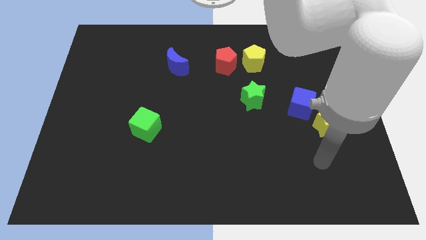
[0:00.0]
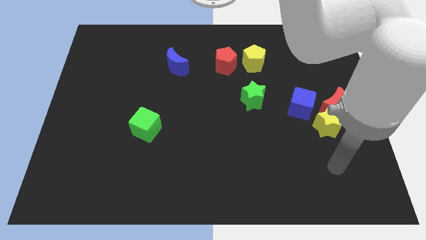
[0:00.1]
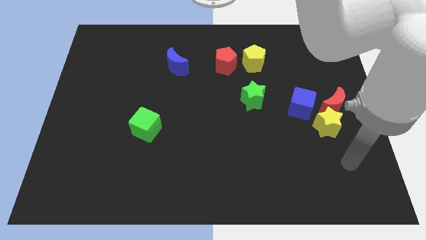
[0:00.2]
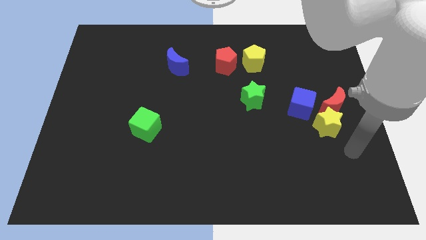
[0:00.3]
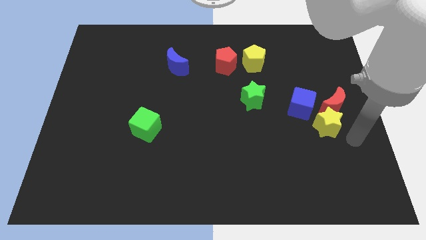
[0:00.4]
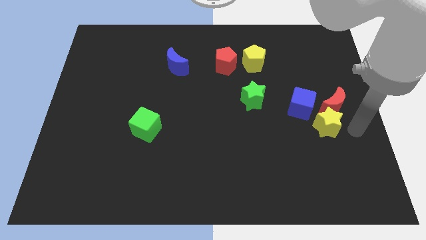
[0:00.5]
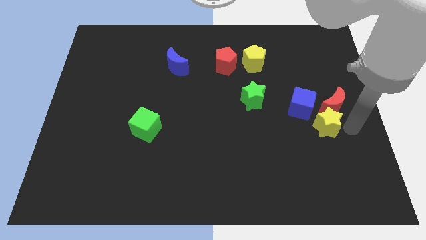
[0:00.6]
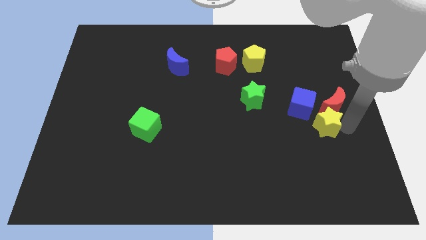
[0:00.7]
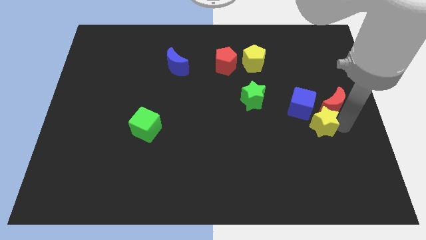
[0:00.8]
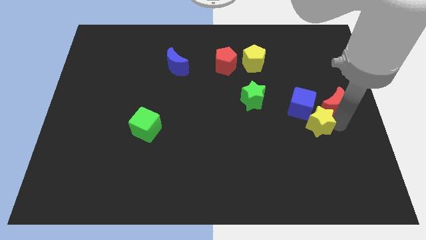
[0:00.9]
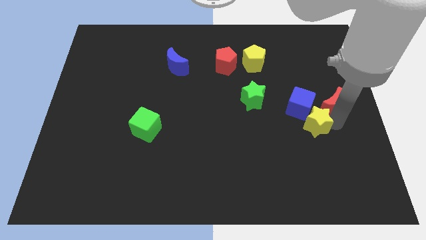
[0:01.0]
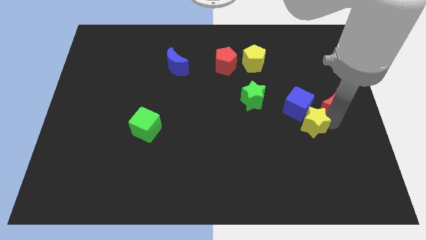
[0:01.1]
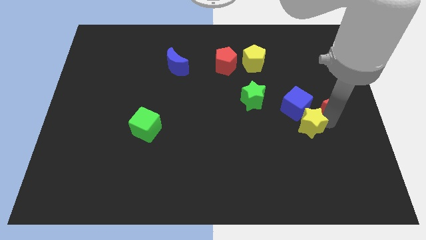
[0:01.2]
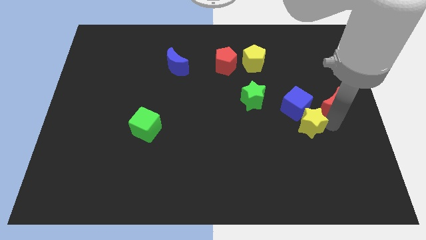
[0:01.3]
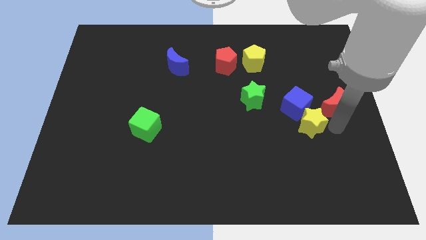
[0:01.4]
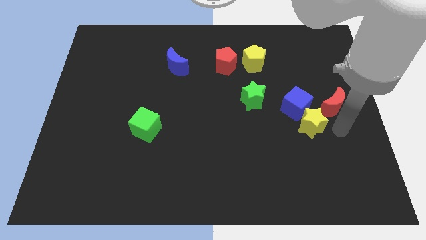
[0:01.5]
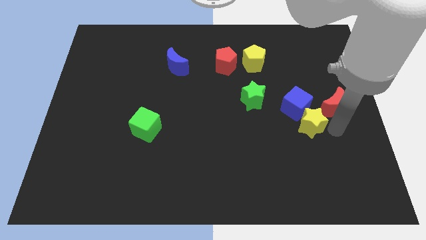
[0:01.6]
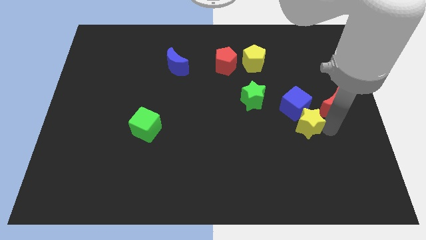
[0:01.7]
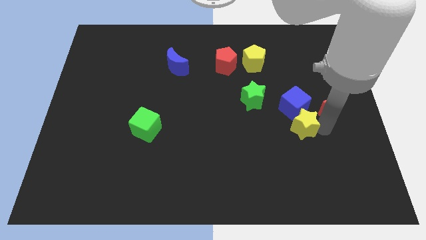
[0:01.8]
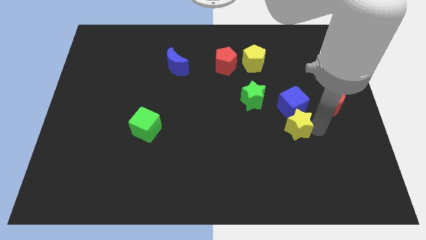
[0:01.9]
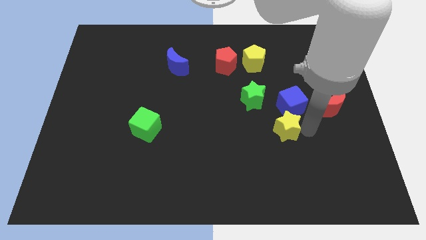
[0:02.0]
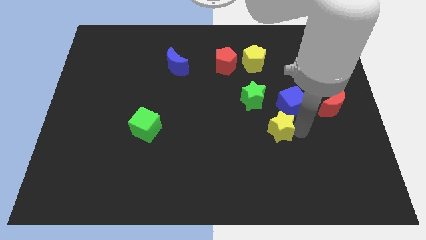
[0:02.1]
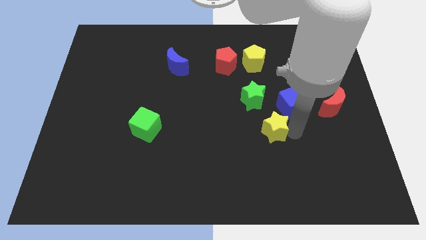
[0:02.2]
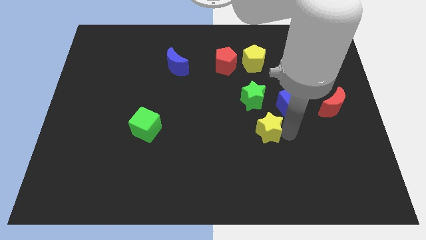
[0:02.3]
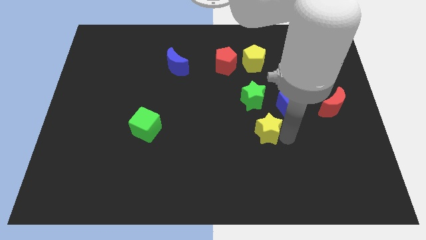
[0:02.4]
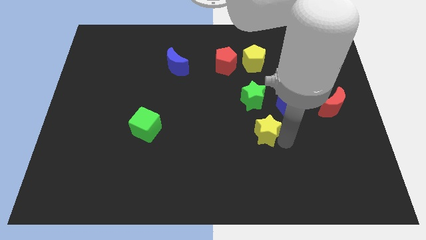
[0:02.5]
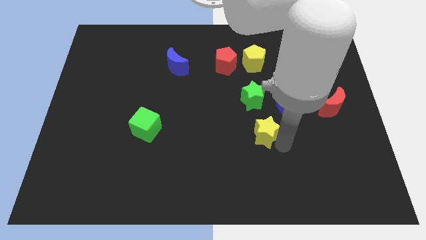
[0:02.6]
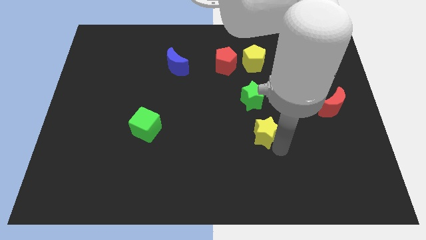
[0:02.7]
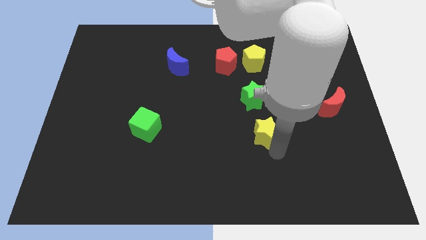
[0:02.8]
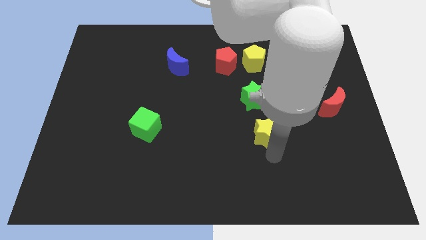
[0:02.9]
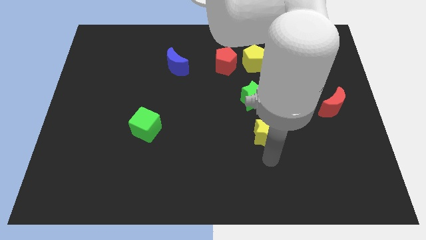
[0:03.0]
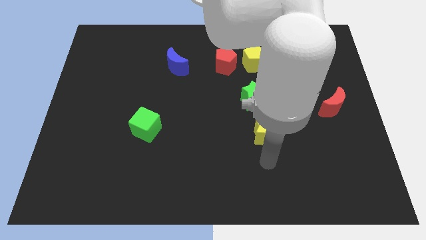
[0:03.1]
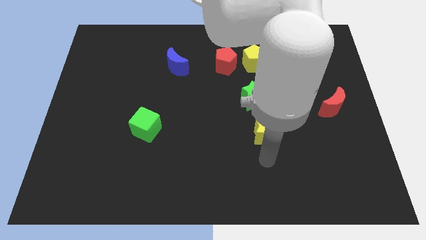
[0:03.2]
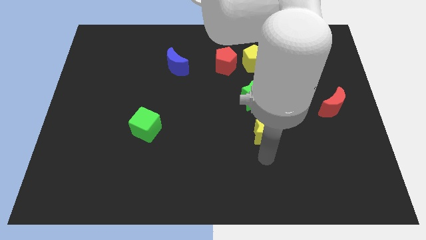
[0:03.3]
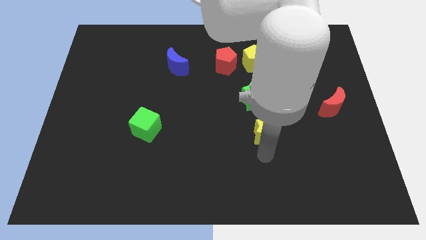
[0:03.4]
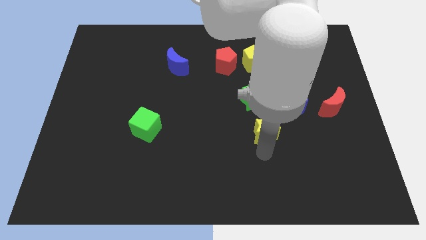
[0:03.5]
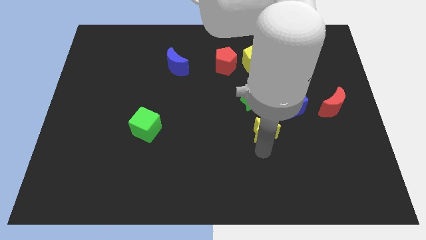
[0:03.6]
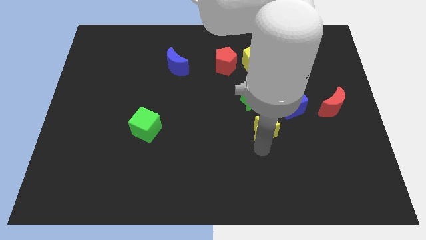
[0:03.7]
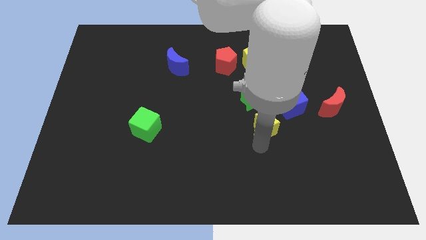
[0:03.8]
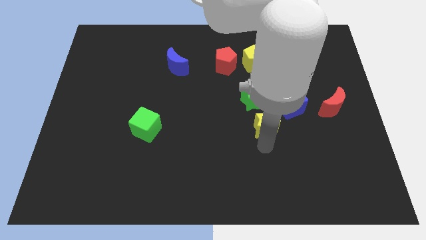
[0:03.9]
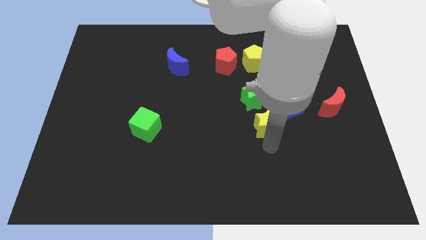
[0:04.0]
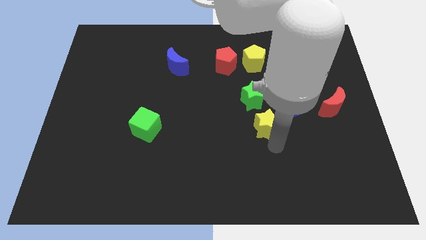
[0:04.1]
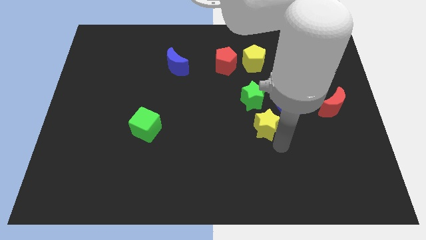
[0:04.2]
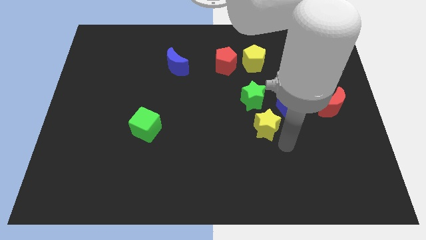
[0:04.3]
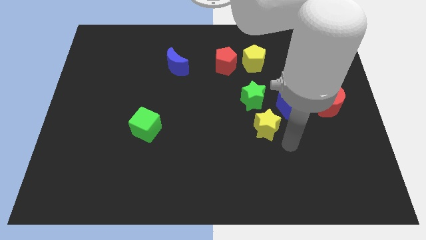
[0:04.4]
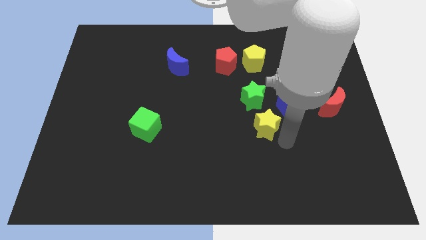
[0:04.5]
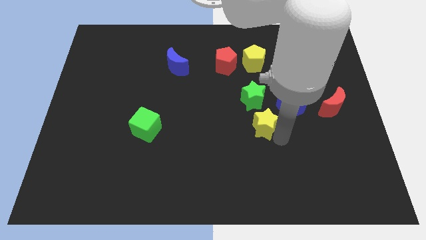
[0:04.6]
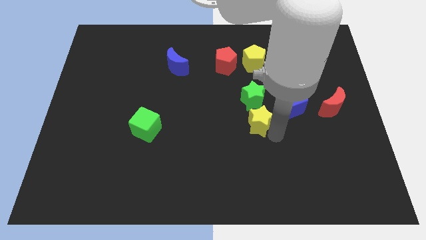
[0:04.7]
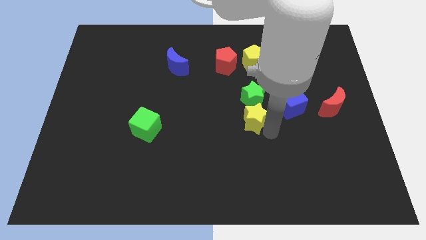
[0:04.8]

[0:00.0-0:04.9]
move the yellow star to the bottom left of the green star

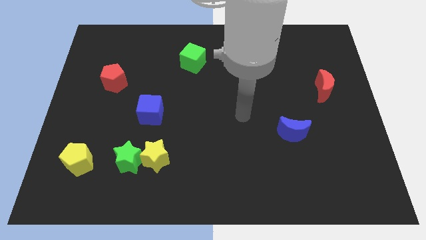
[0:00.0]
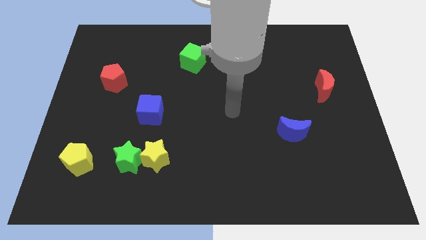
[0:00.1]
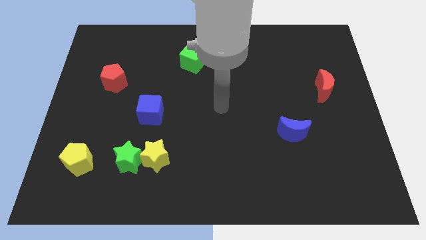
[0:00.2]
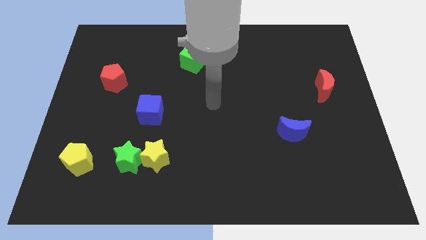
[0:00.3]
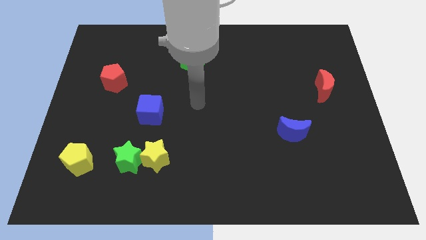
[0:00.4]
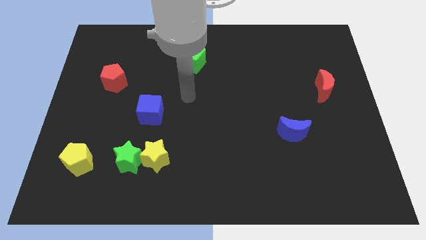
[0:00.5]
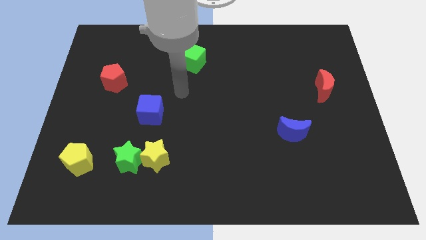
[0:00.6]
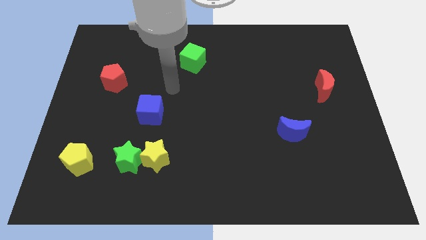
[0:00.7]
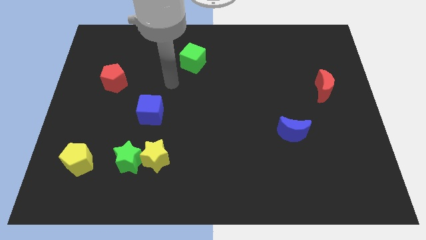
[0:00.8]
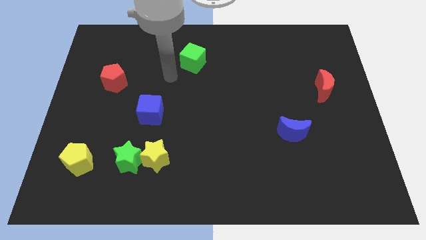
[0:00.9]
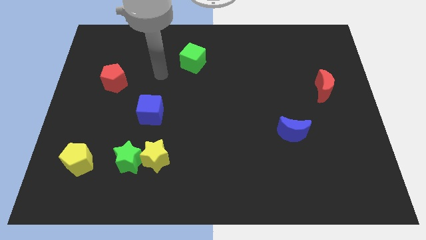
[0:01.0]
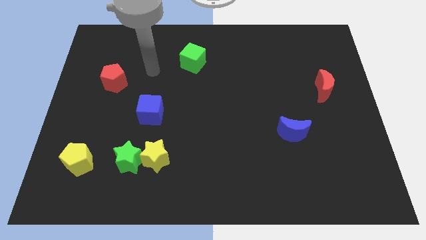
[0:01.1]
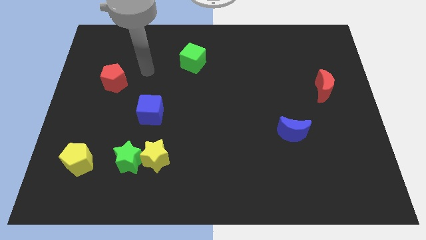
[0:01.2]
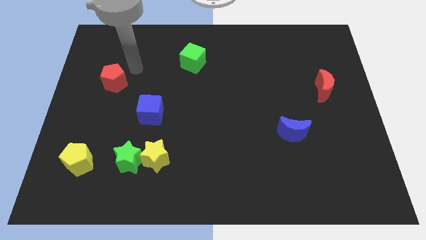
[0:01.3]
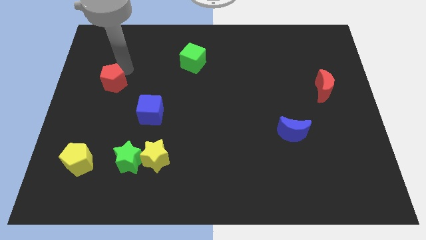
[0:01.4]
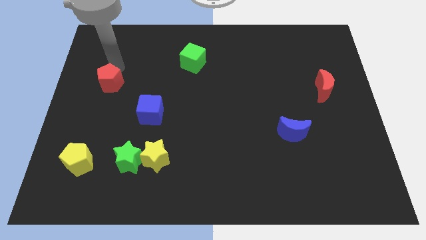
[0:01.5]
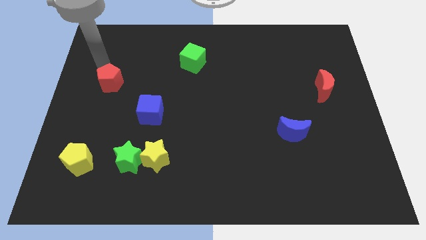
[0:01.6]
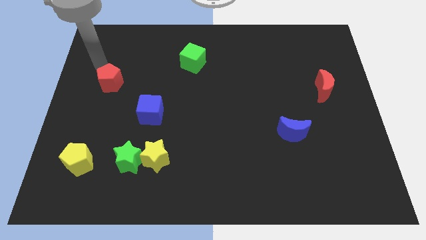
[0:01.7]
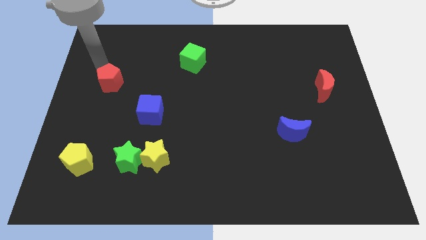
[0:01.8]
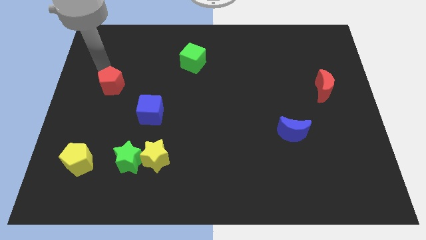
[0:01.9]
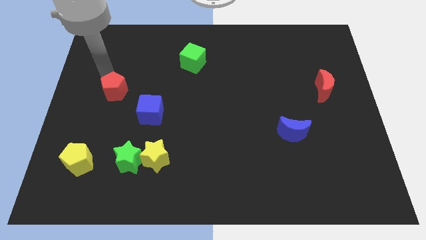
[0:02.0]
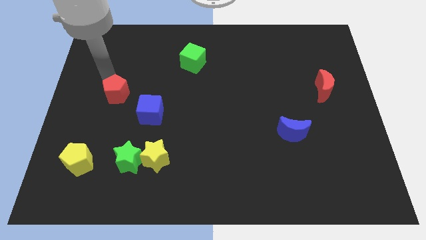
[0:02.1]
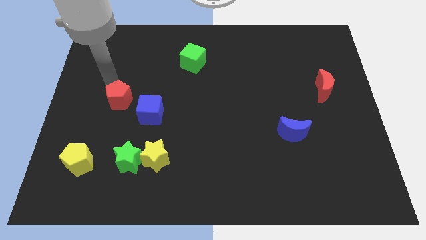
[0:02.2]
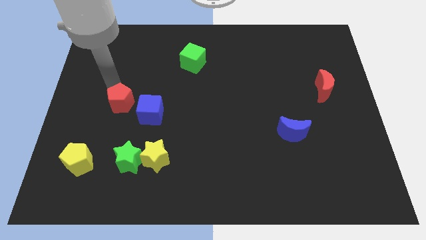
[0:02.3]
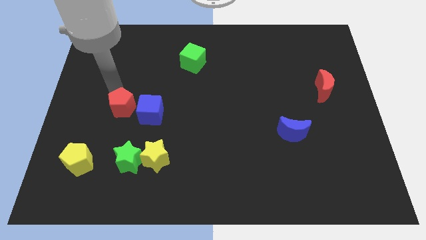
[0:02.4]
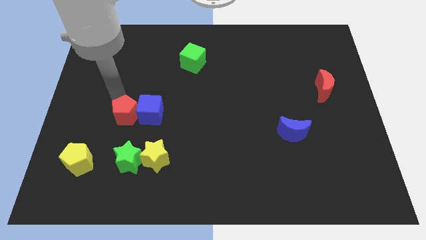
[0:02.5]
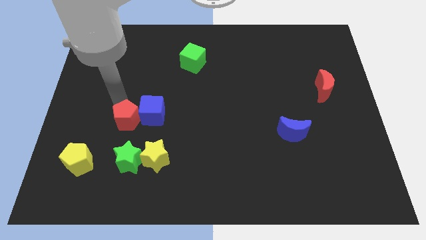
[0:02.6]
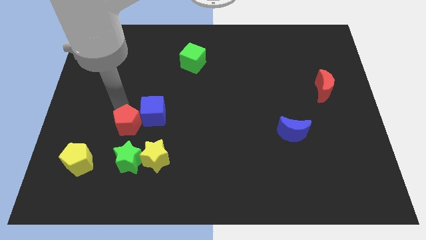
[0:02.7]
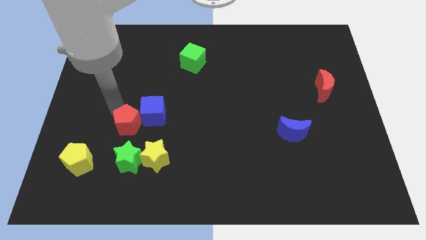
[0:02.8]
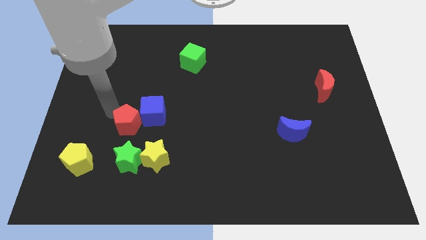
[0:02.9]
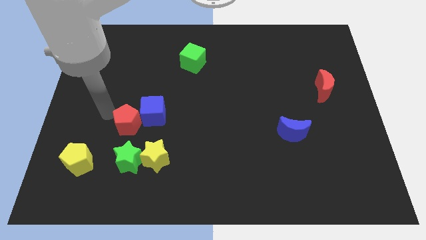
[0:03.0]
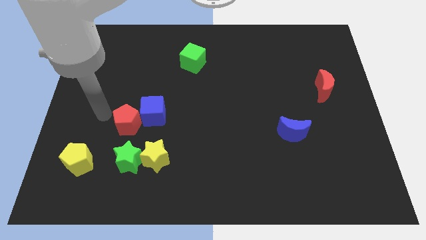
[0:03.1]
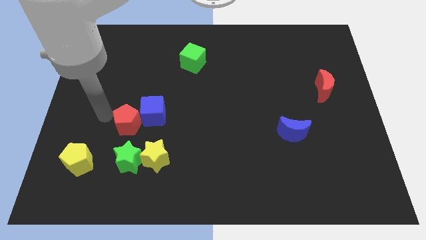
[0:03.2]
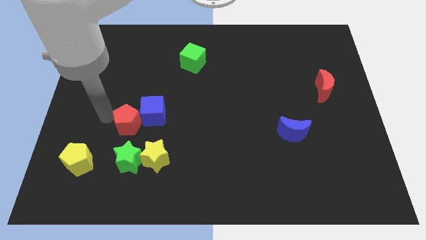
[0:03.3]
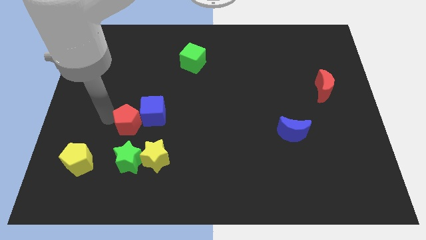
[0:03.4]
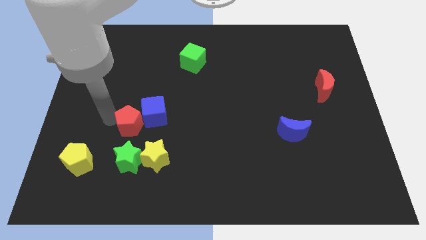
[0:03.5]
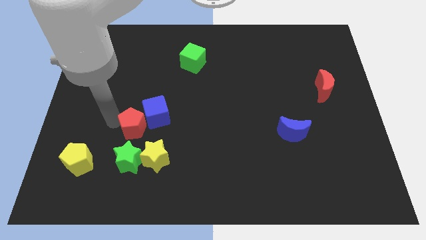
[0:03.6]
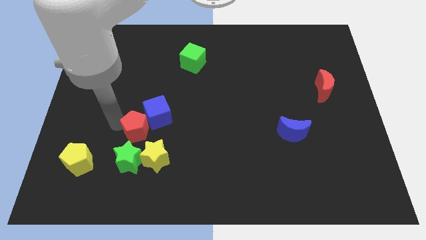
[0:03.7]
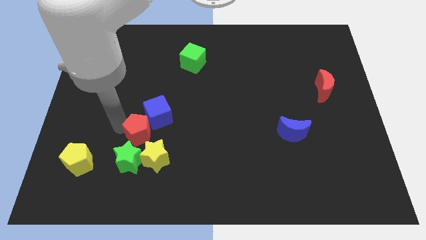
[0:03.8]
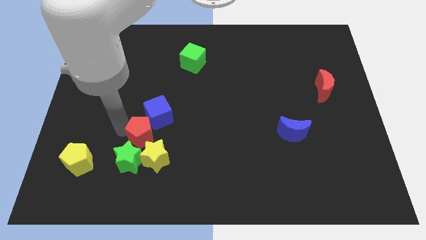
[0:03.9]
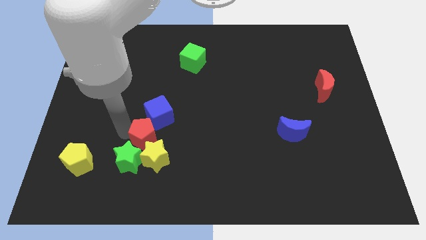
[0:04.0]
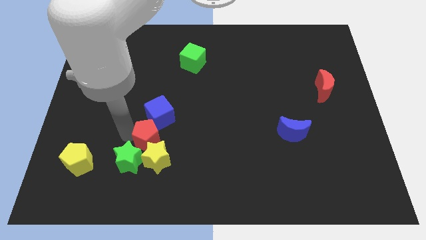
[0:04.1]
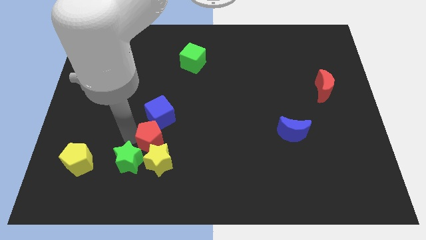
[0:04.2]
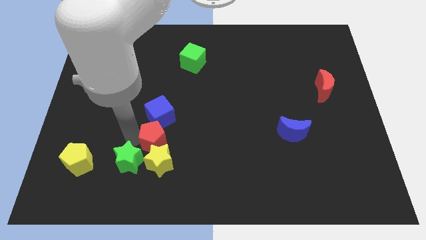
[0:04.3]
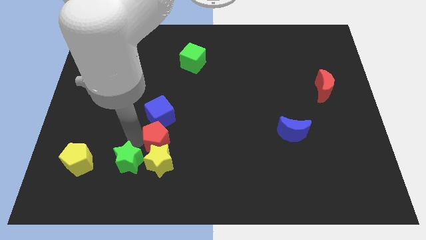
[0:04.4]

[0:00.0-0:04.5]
put the red pentagon to the top right of the yellow star
